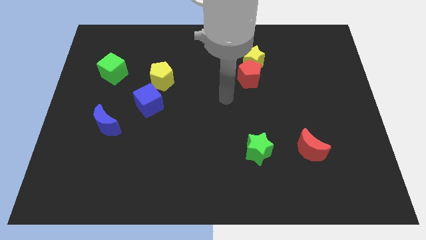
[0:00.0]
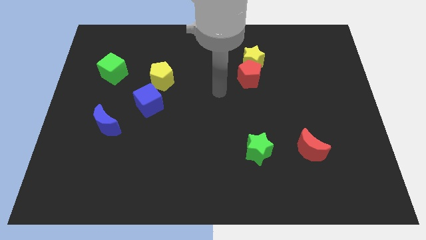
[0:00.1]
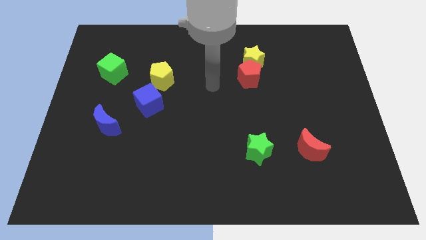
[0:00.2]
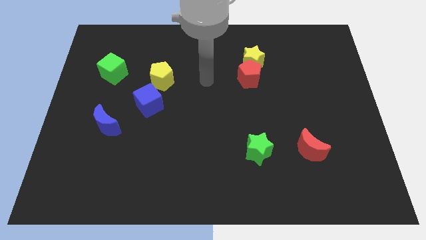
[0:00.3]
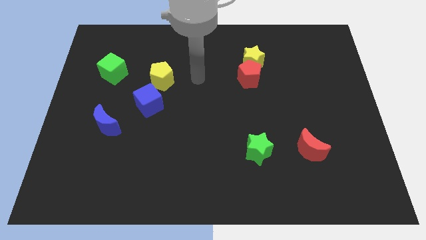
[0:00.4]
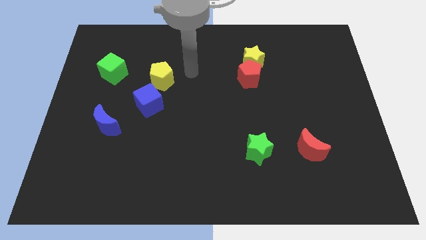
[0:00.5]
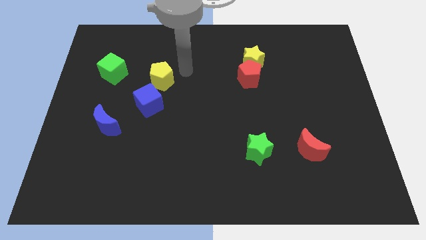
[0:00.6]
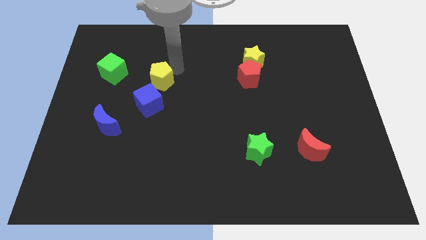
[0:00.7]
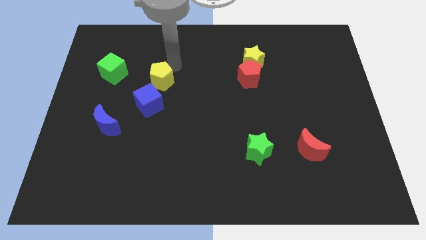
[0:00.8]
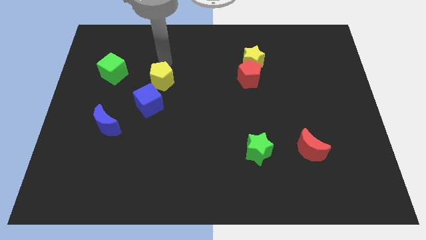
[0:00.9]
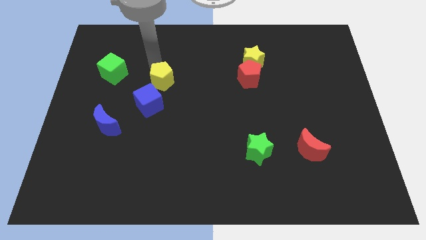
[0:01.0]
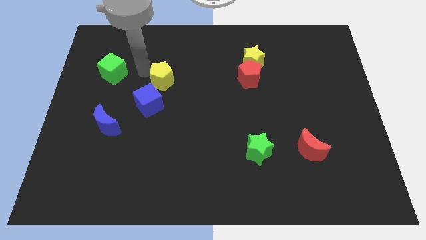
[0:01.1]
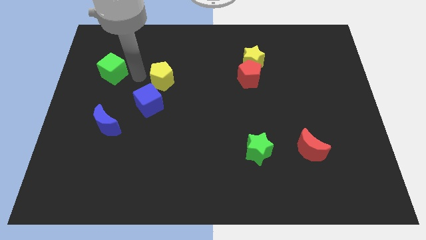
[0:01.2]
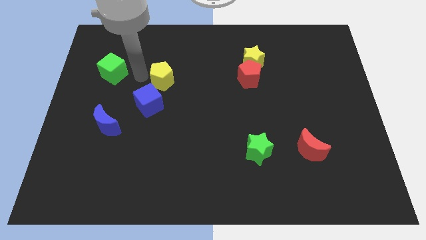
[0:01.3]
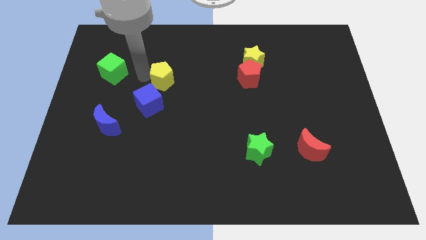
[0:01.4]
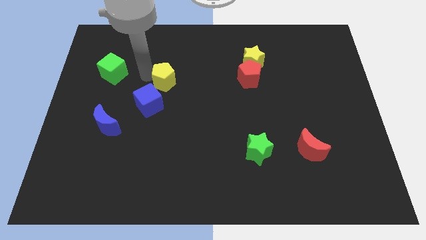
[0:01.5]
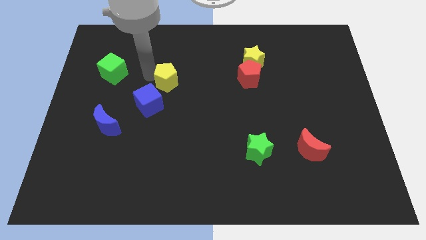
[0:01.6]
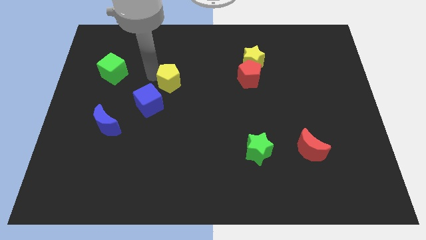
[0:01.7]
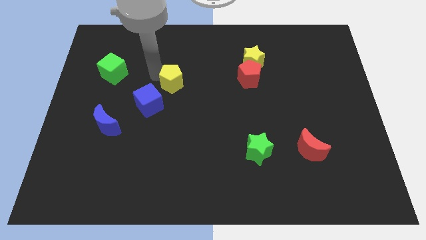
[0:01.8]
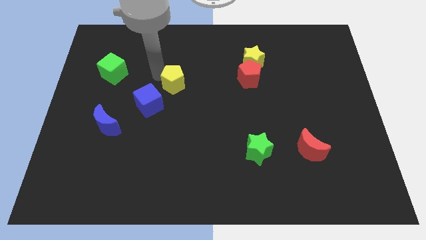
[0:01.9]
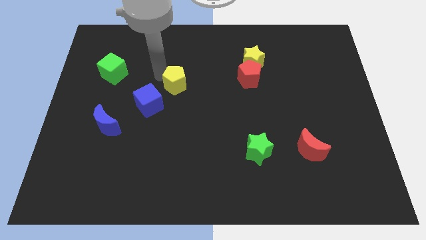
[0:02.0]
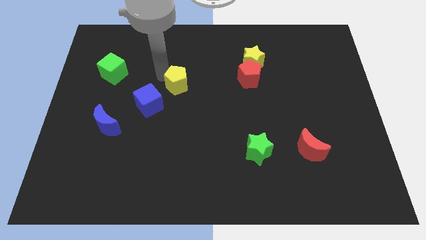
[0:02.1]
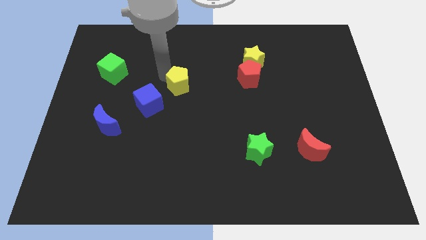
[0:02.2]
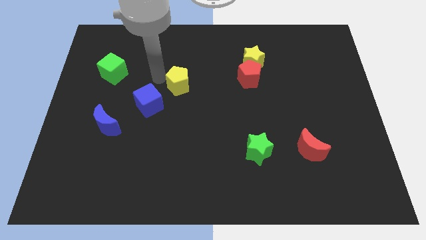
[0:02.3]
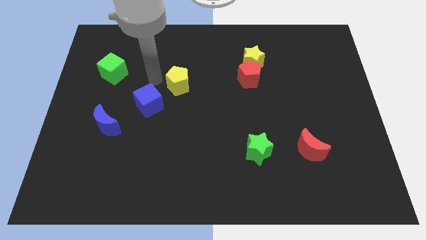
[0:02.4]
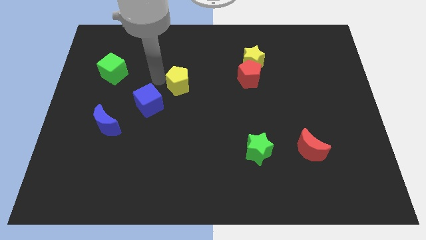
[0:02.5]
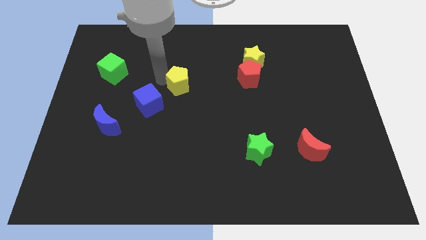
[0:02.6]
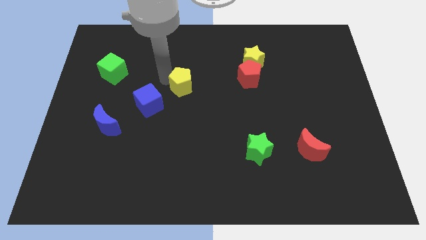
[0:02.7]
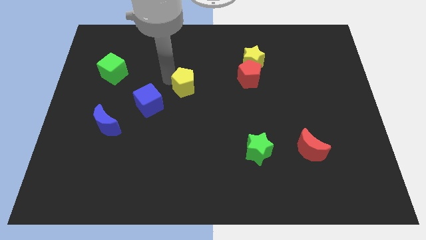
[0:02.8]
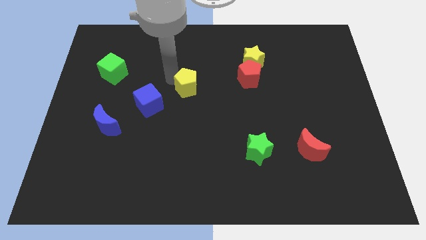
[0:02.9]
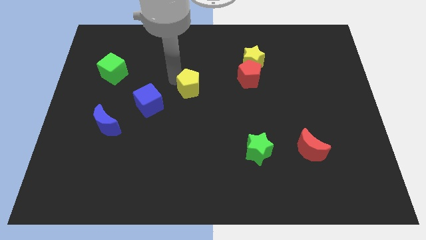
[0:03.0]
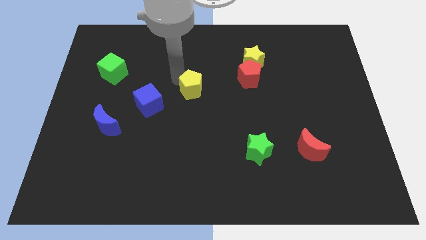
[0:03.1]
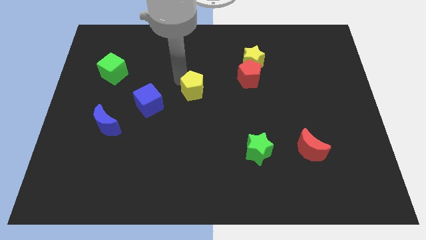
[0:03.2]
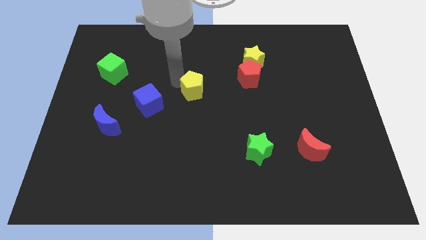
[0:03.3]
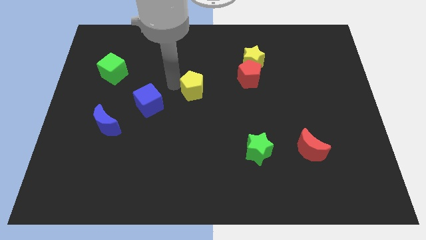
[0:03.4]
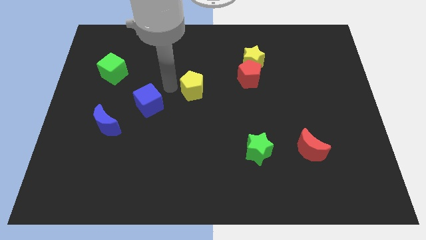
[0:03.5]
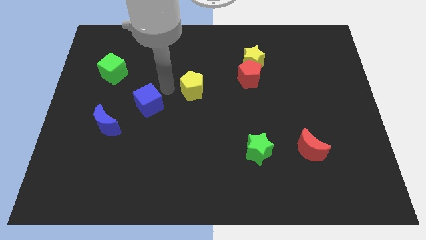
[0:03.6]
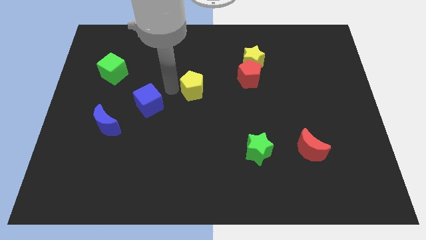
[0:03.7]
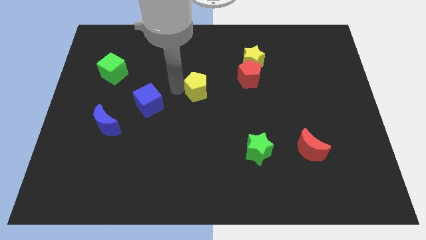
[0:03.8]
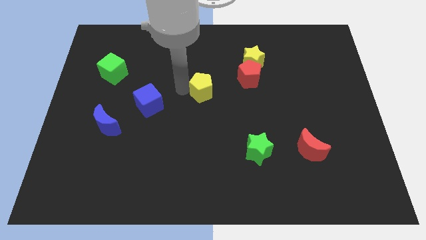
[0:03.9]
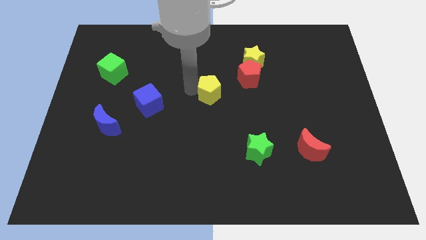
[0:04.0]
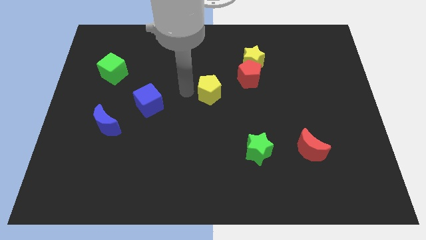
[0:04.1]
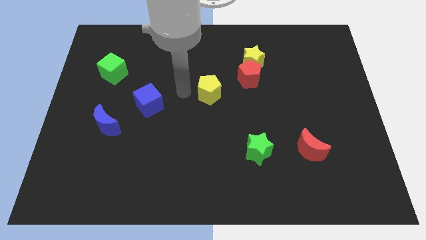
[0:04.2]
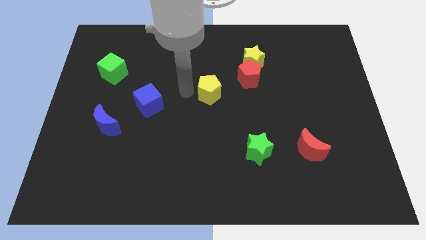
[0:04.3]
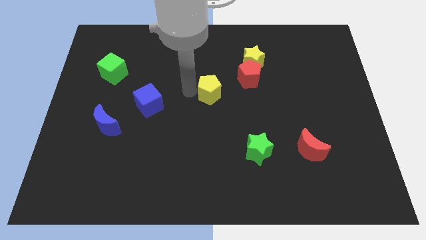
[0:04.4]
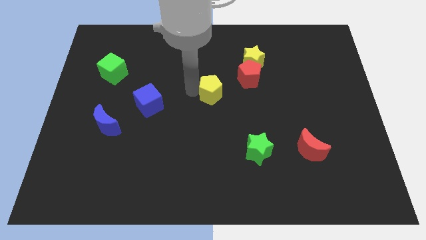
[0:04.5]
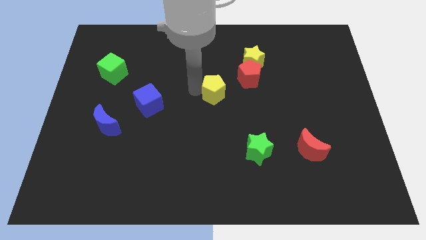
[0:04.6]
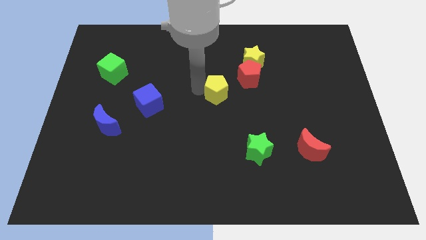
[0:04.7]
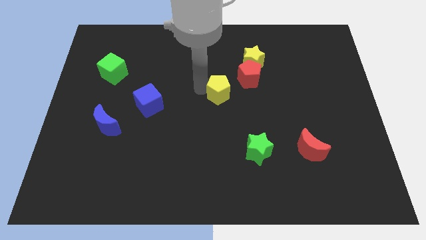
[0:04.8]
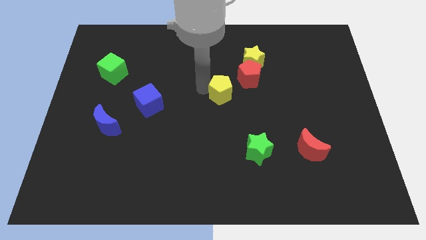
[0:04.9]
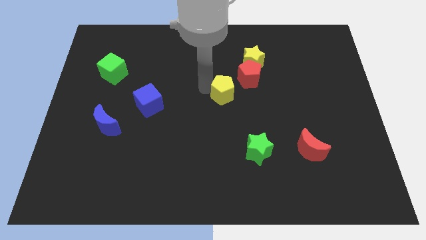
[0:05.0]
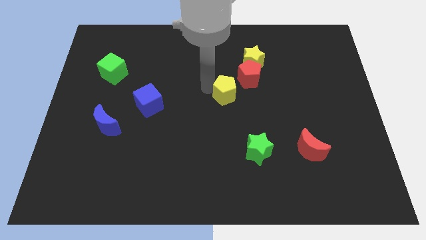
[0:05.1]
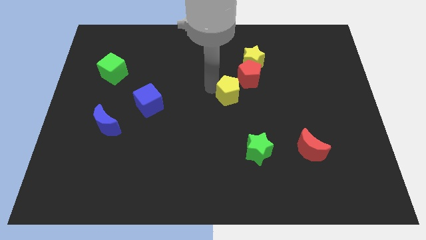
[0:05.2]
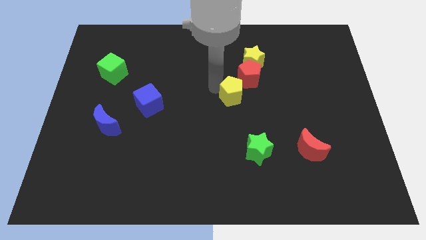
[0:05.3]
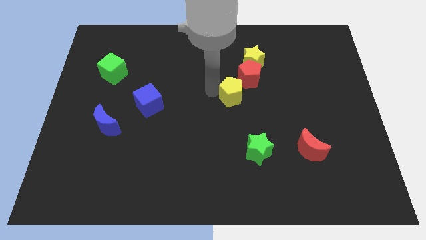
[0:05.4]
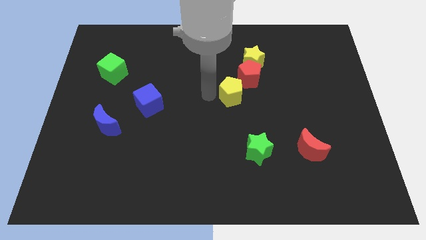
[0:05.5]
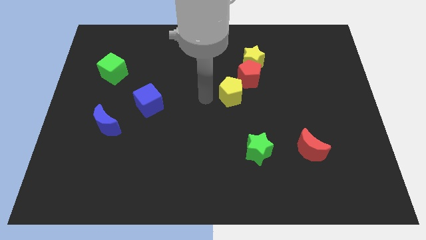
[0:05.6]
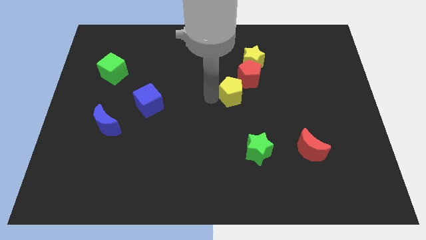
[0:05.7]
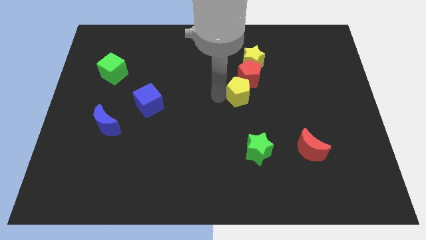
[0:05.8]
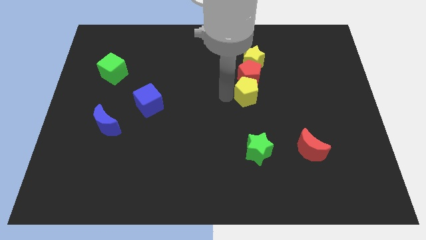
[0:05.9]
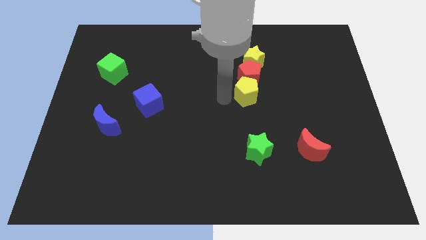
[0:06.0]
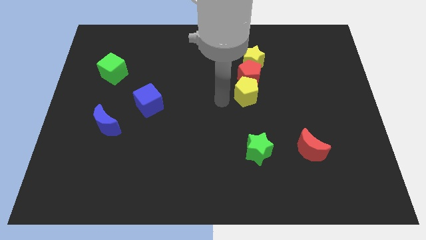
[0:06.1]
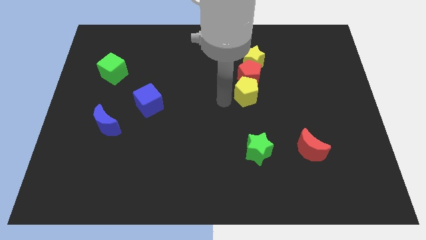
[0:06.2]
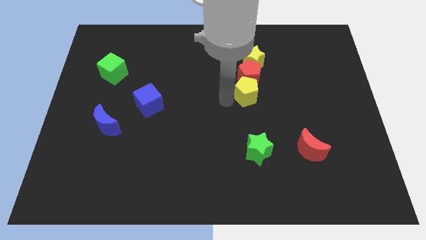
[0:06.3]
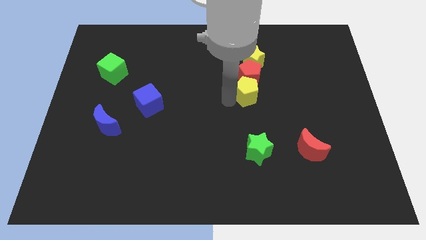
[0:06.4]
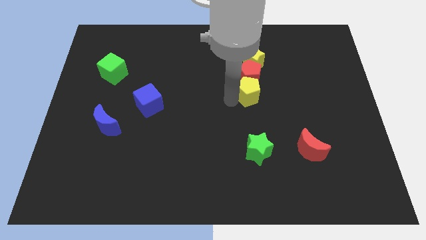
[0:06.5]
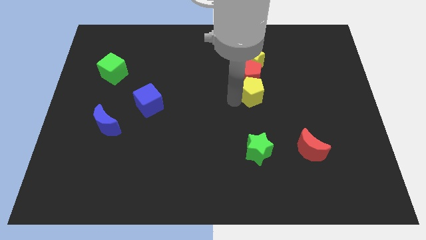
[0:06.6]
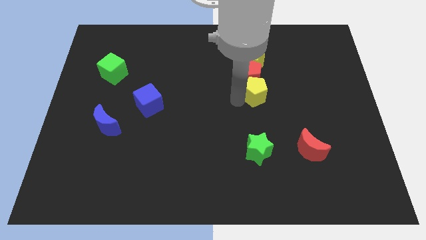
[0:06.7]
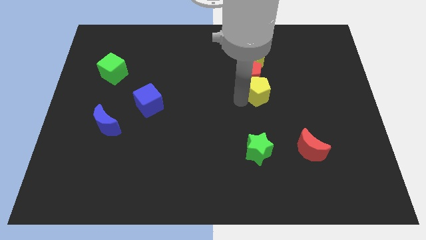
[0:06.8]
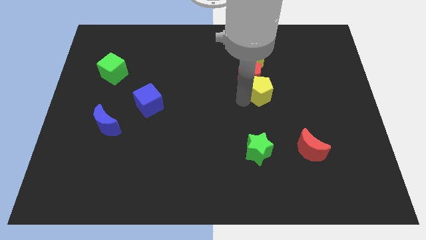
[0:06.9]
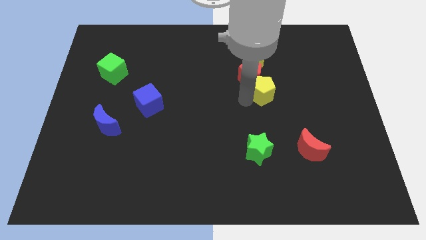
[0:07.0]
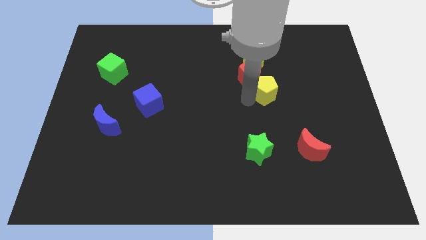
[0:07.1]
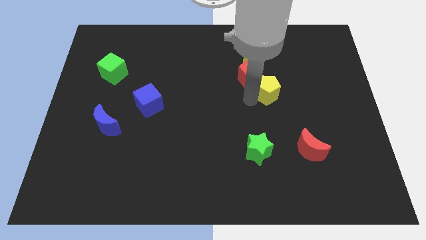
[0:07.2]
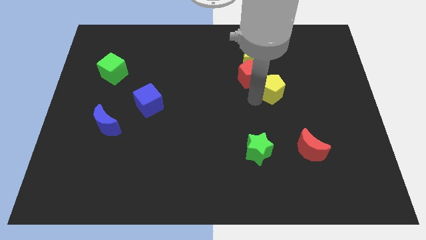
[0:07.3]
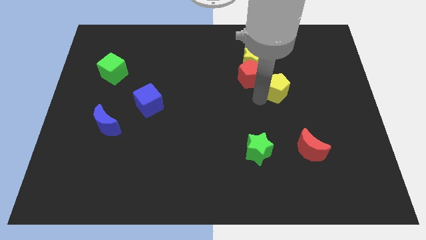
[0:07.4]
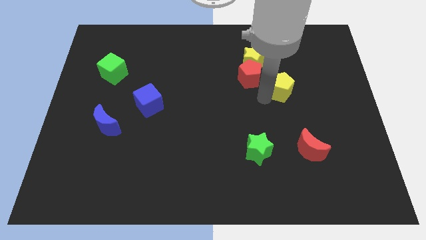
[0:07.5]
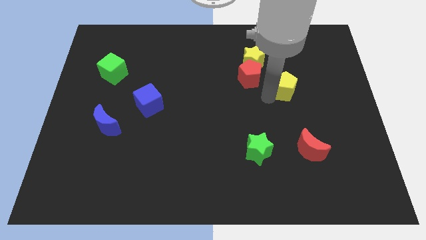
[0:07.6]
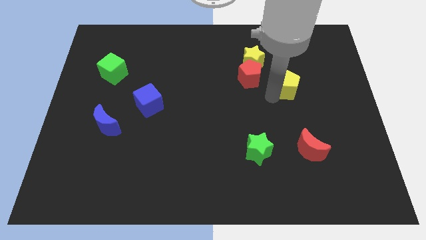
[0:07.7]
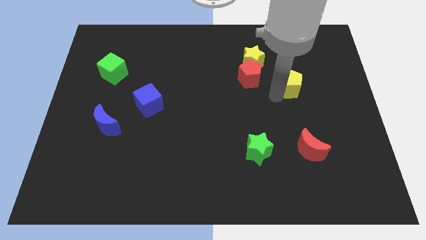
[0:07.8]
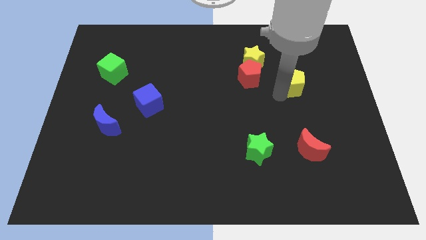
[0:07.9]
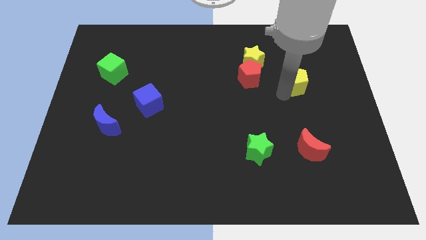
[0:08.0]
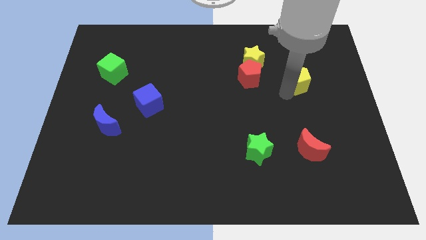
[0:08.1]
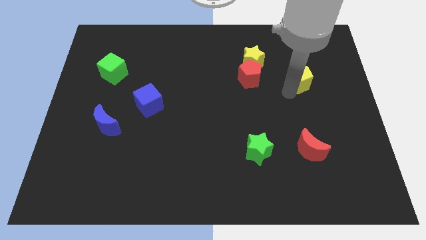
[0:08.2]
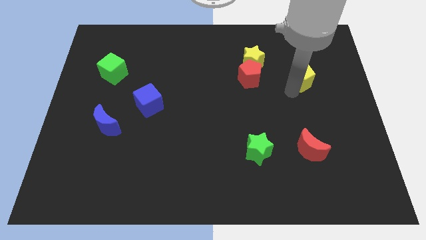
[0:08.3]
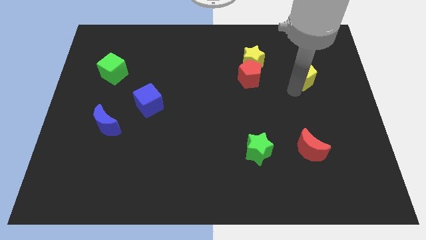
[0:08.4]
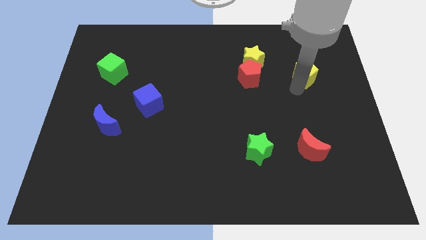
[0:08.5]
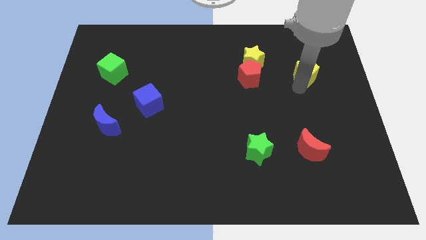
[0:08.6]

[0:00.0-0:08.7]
move the yellow pentagon right of the yellow star

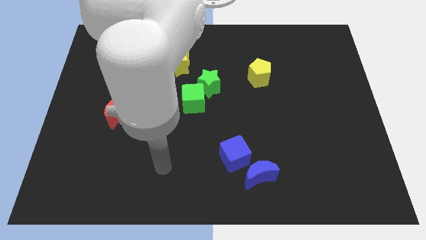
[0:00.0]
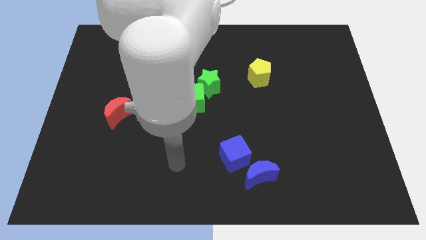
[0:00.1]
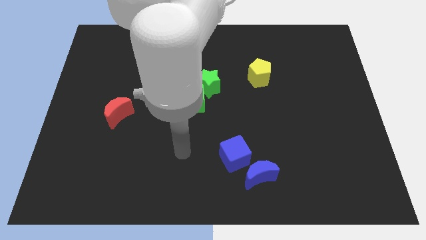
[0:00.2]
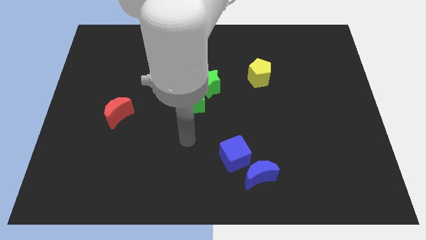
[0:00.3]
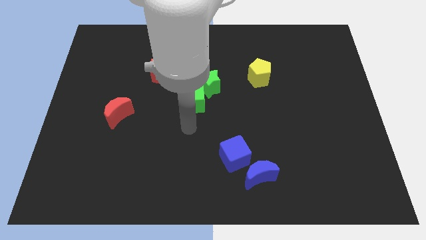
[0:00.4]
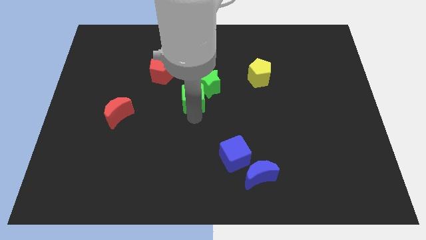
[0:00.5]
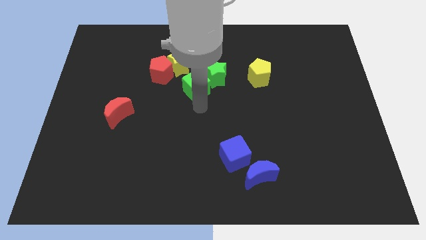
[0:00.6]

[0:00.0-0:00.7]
slide the green star just right of the yellow star
